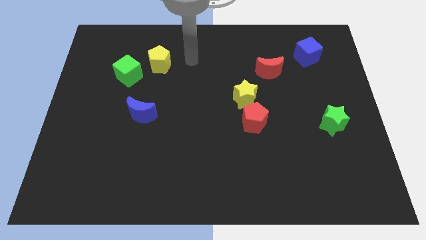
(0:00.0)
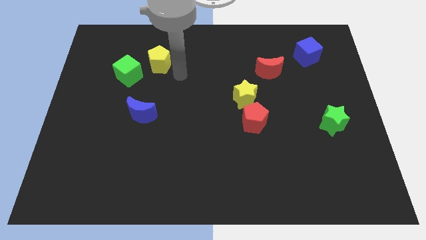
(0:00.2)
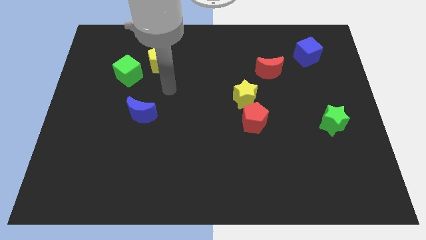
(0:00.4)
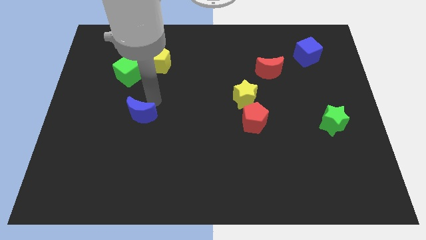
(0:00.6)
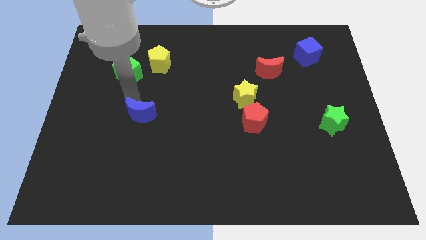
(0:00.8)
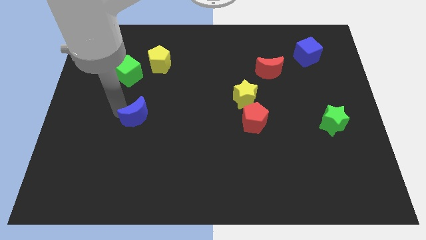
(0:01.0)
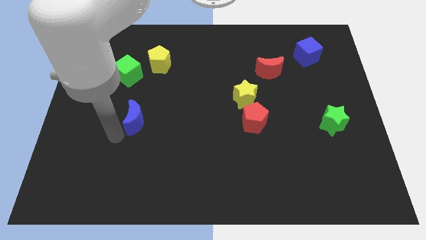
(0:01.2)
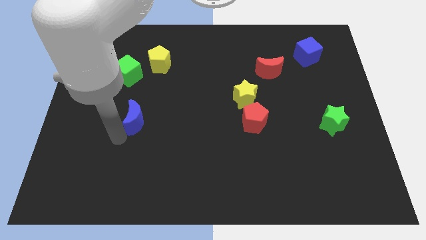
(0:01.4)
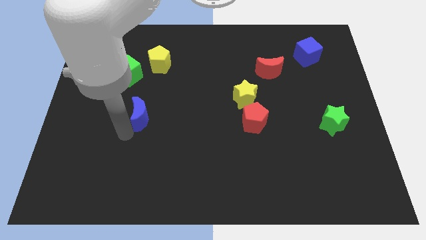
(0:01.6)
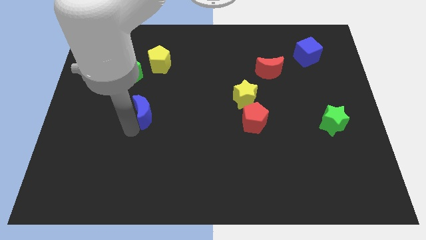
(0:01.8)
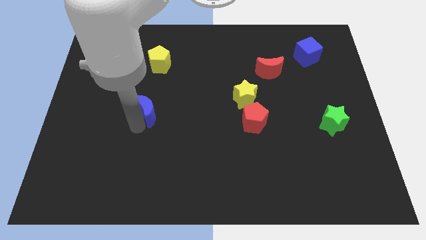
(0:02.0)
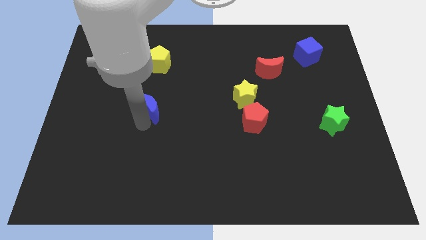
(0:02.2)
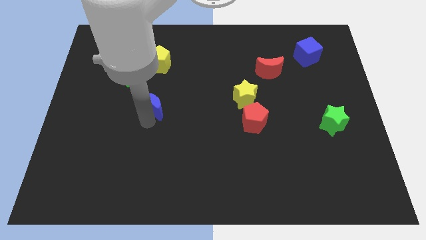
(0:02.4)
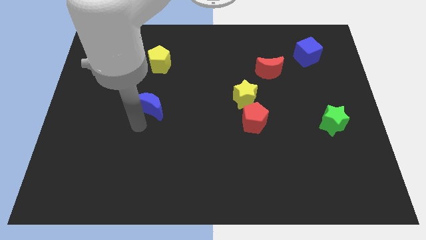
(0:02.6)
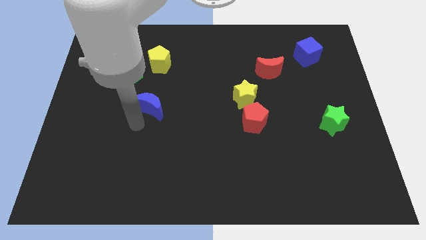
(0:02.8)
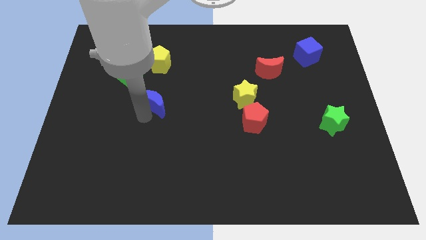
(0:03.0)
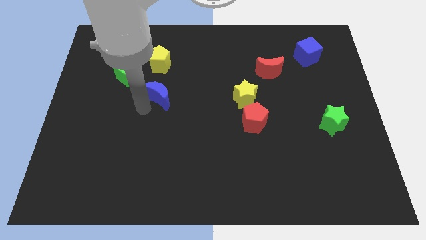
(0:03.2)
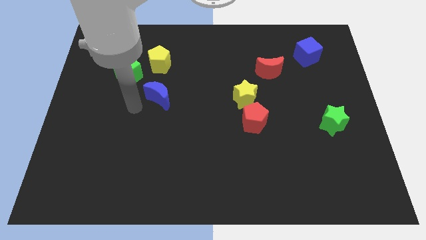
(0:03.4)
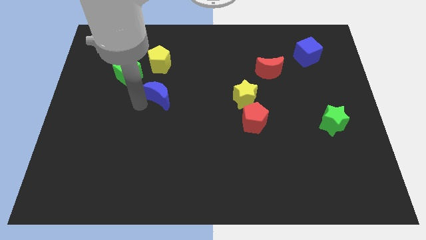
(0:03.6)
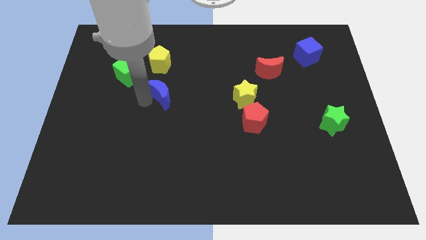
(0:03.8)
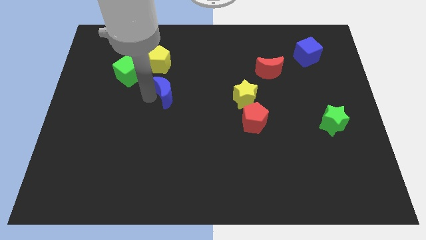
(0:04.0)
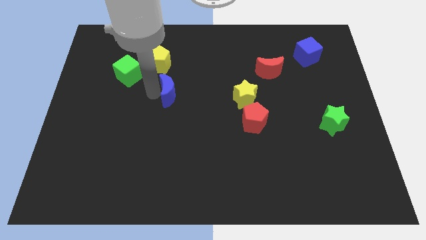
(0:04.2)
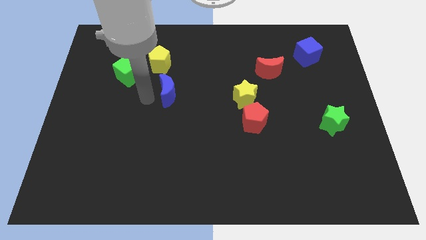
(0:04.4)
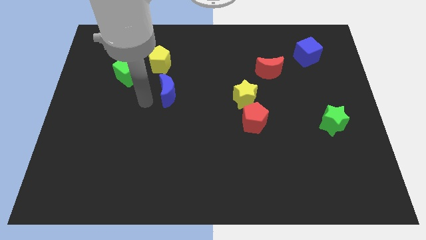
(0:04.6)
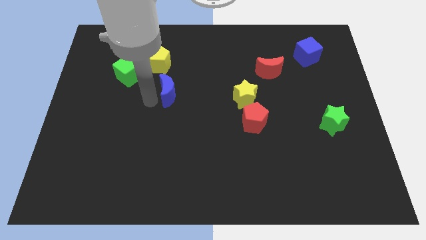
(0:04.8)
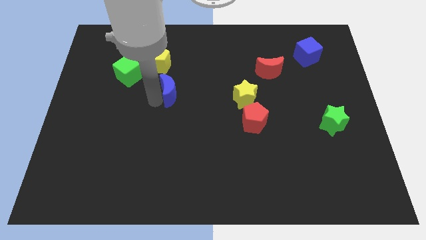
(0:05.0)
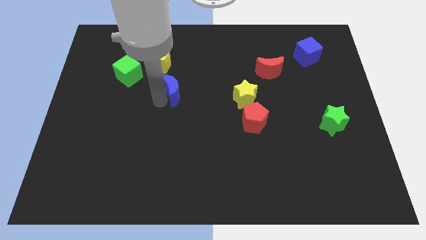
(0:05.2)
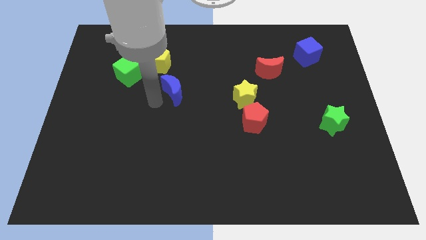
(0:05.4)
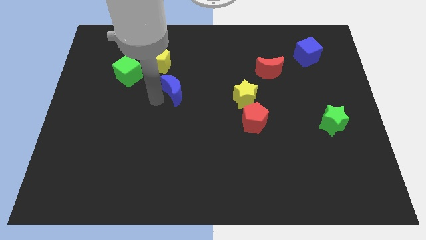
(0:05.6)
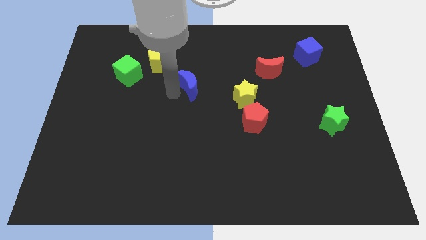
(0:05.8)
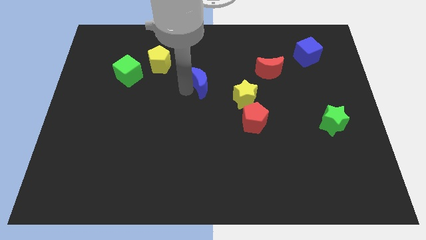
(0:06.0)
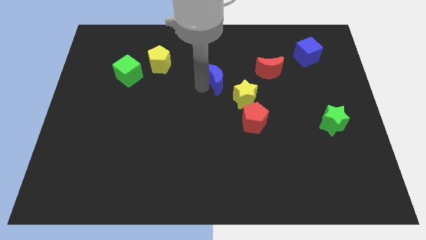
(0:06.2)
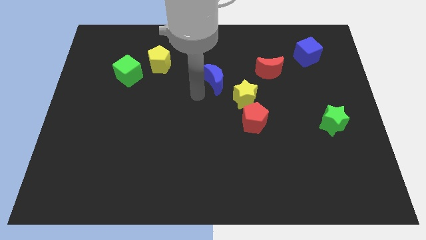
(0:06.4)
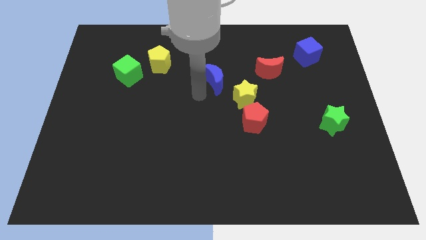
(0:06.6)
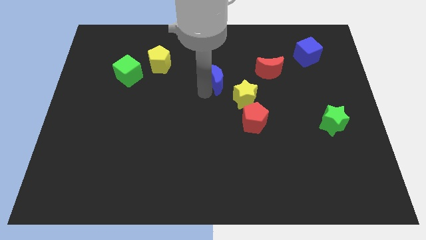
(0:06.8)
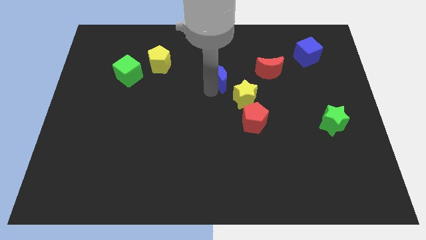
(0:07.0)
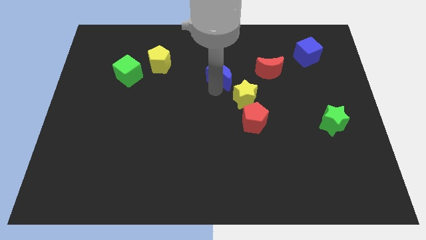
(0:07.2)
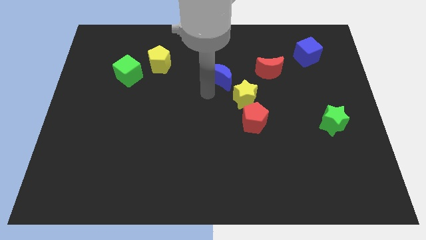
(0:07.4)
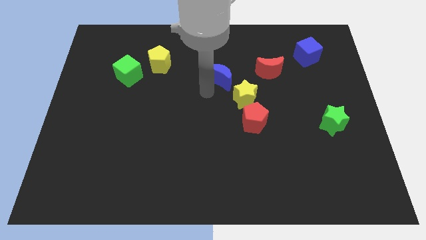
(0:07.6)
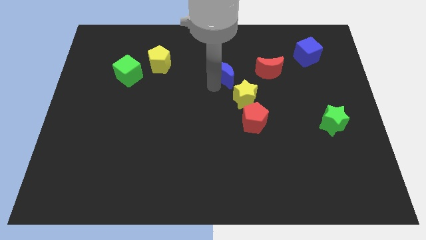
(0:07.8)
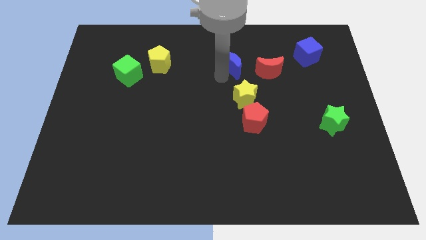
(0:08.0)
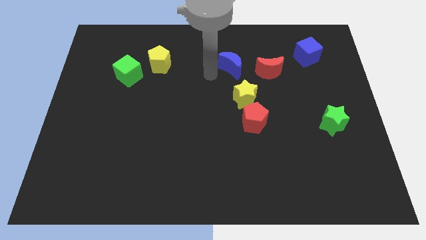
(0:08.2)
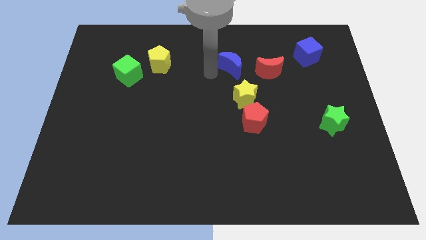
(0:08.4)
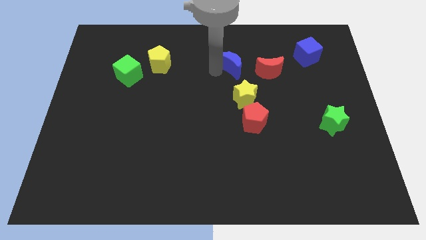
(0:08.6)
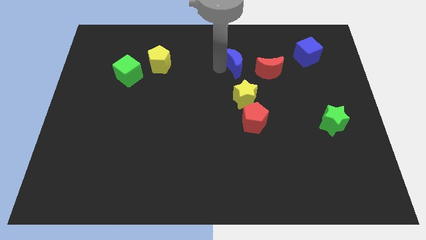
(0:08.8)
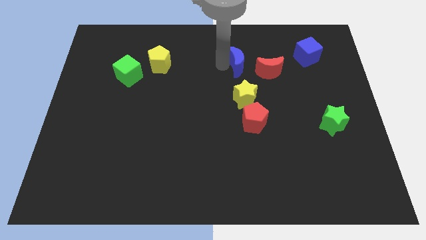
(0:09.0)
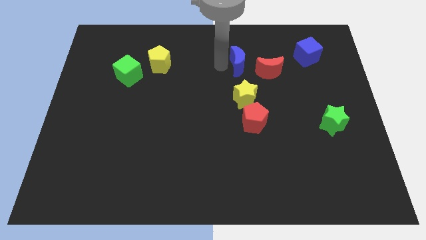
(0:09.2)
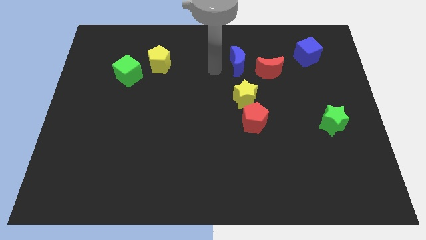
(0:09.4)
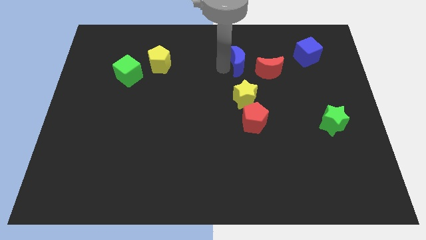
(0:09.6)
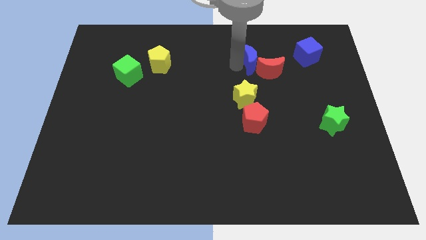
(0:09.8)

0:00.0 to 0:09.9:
move the blue moon to the left of the blue cube

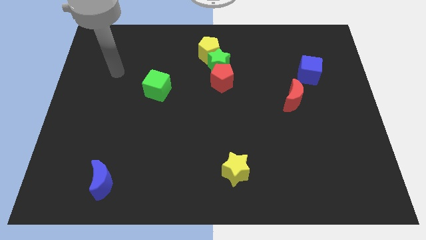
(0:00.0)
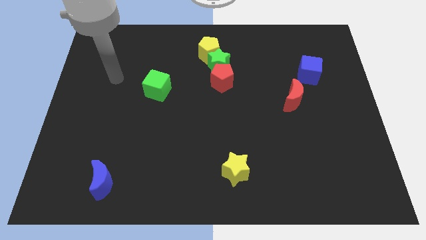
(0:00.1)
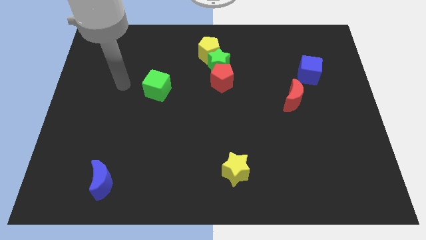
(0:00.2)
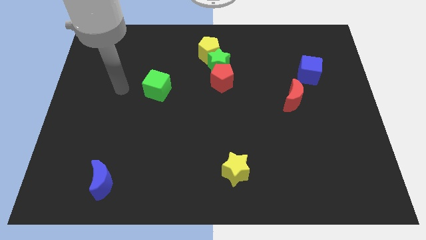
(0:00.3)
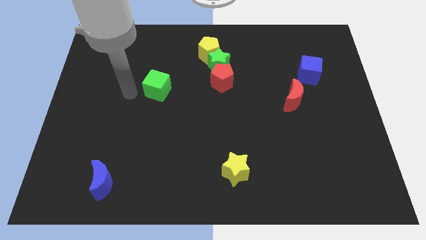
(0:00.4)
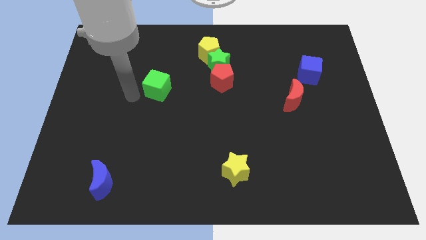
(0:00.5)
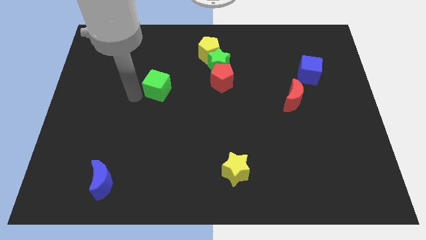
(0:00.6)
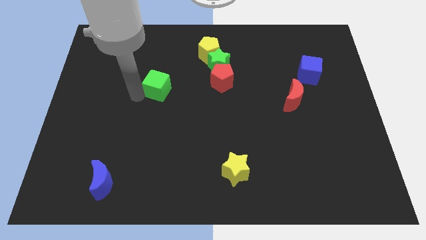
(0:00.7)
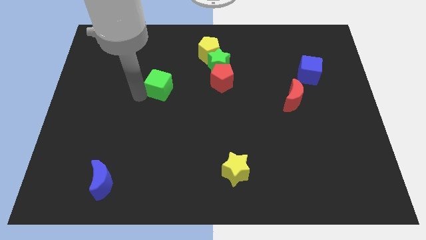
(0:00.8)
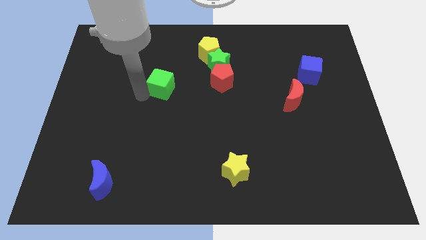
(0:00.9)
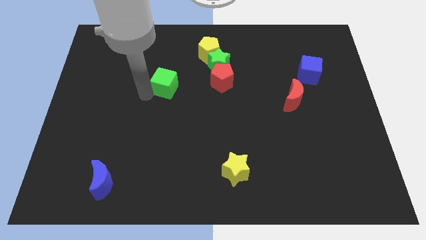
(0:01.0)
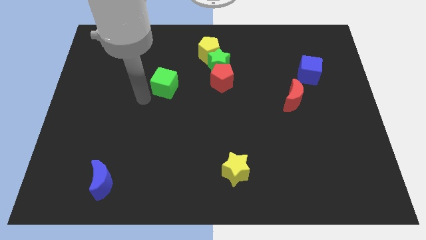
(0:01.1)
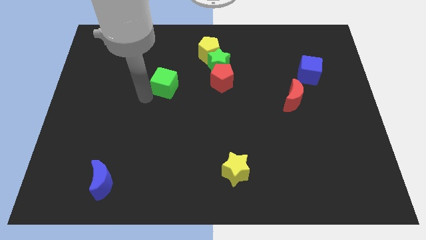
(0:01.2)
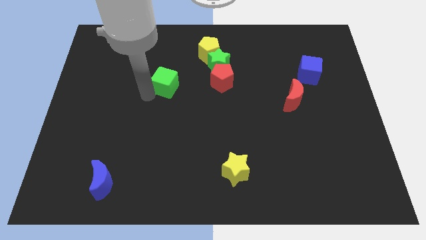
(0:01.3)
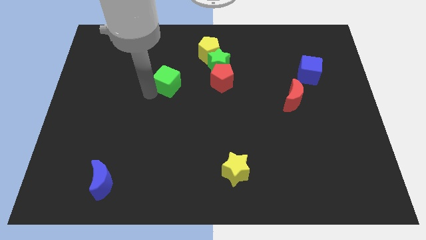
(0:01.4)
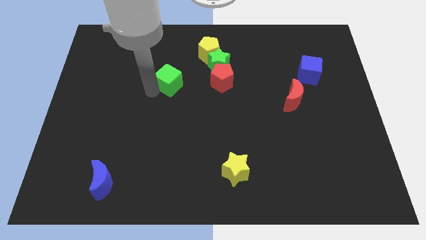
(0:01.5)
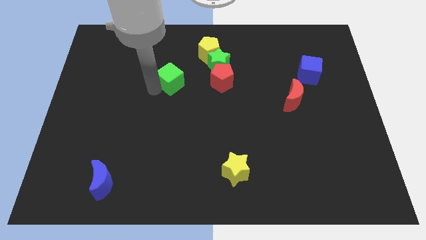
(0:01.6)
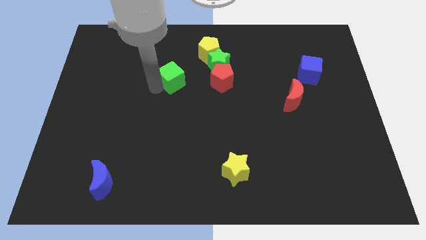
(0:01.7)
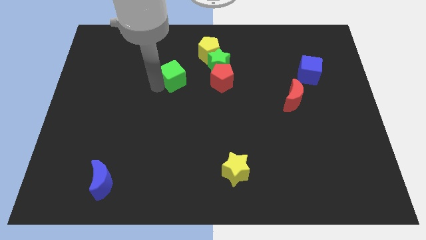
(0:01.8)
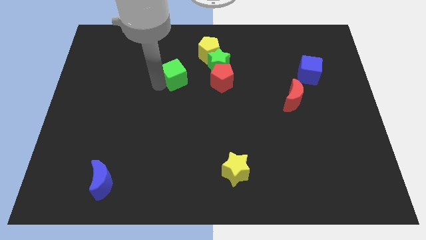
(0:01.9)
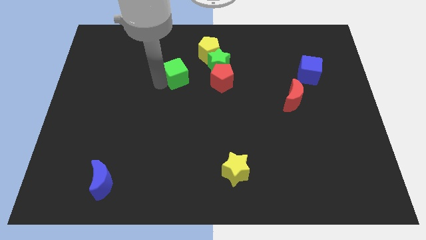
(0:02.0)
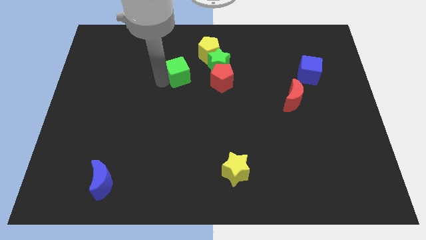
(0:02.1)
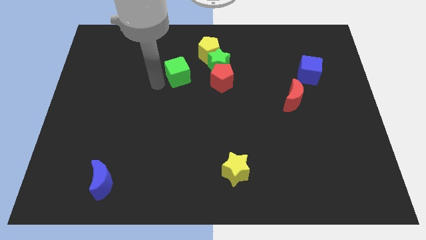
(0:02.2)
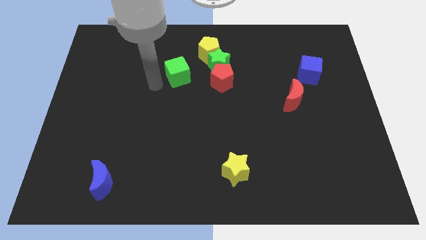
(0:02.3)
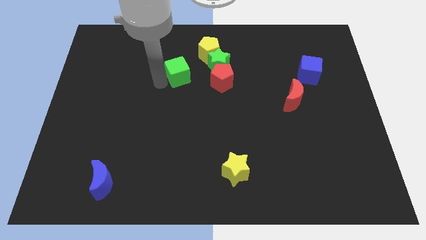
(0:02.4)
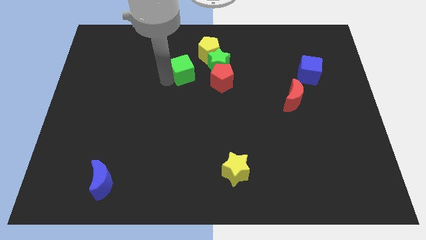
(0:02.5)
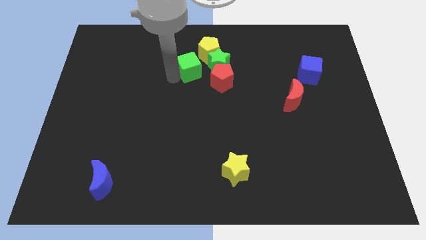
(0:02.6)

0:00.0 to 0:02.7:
move the green cube diagonally up and to the left of the red pentagon

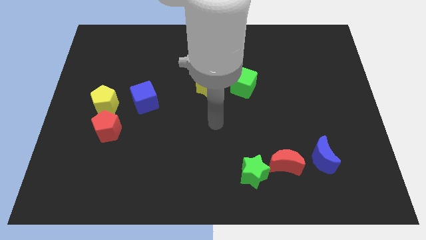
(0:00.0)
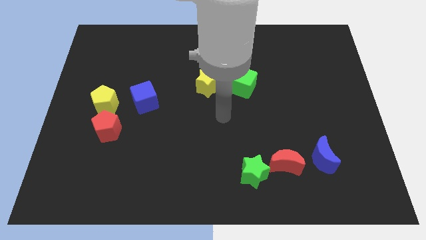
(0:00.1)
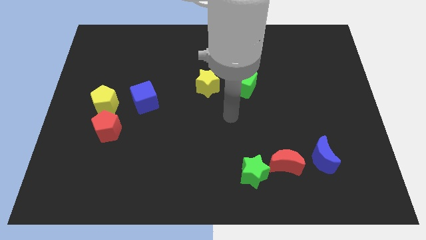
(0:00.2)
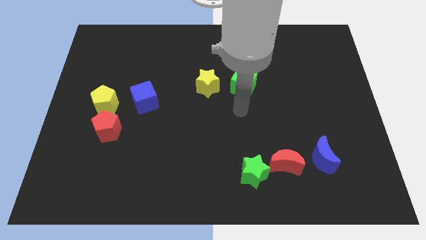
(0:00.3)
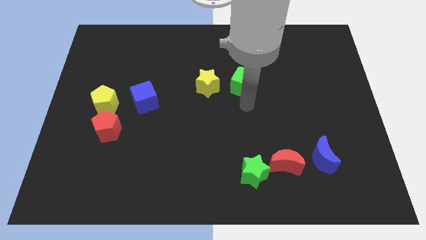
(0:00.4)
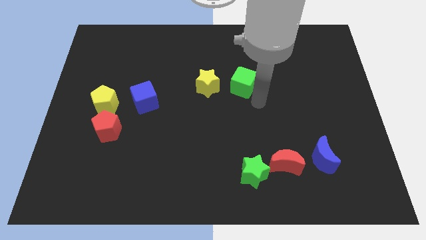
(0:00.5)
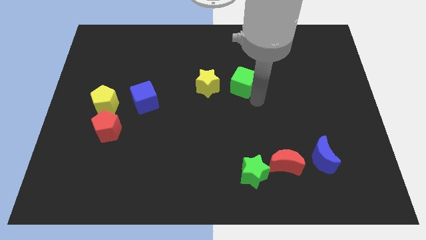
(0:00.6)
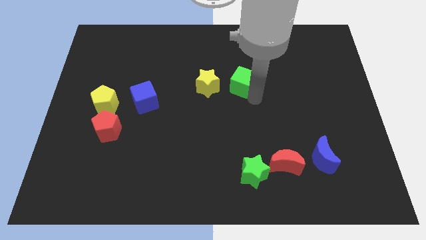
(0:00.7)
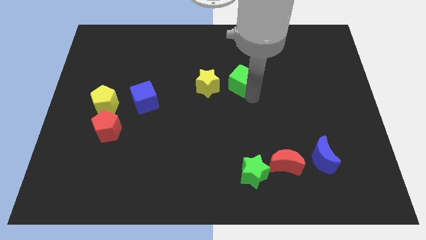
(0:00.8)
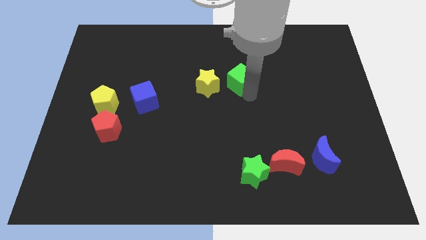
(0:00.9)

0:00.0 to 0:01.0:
push the green cube to the top right of the yellow star
